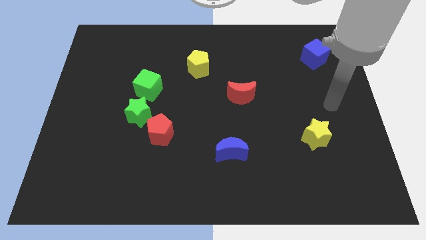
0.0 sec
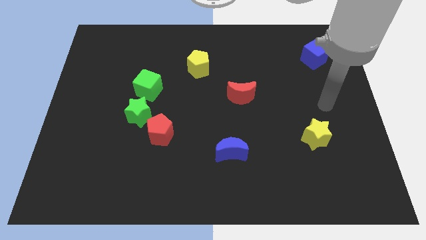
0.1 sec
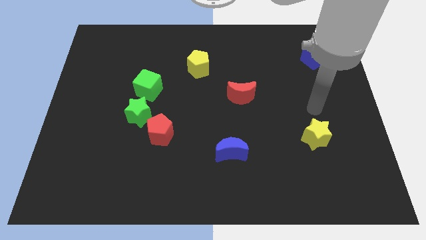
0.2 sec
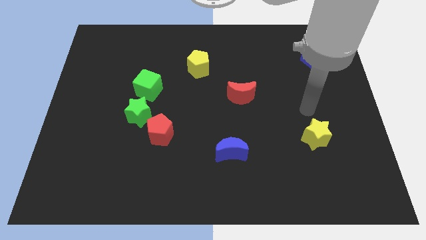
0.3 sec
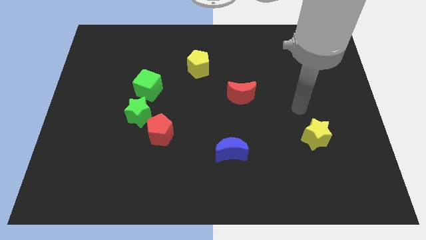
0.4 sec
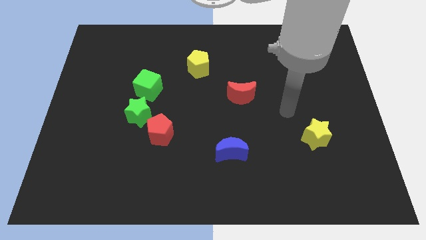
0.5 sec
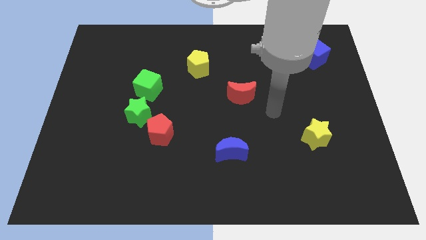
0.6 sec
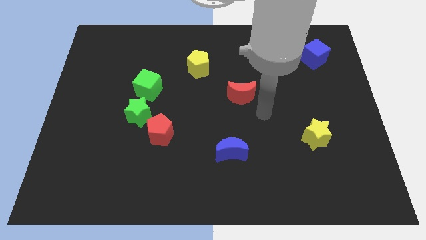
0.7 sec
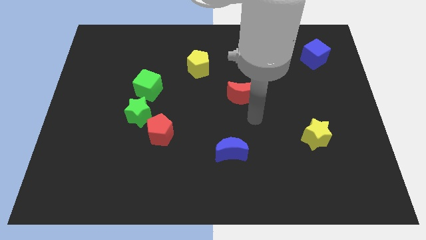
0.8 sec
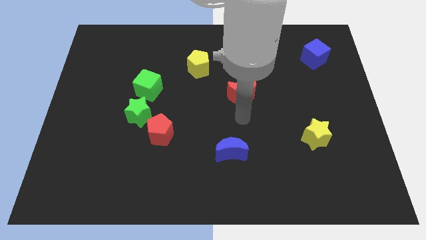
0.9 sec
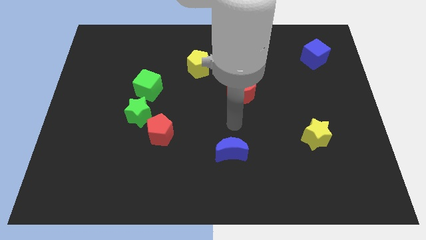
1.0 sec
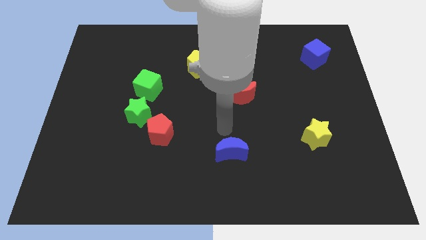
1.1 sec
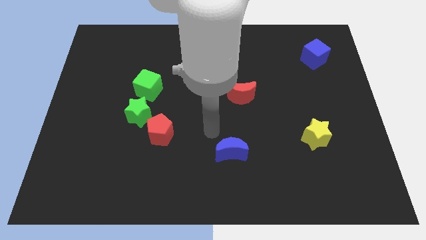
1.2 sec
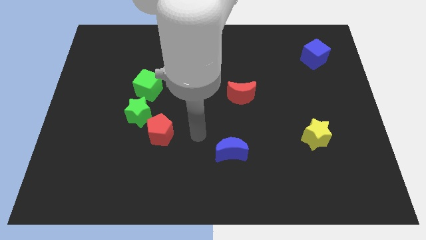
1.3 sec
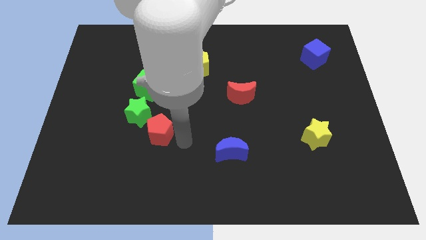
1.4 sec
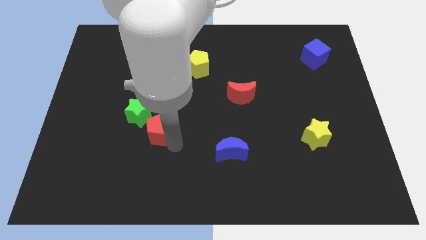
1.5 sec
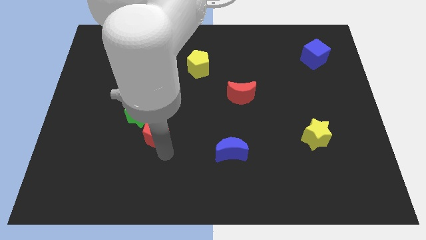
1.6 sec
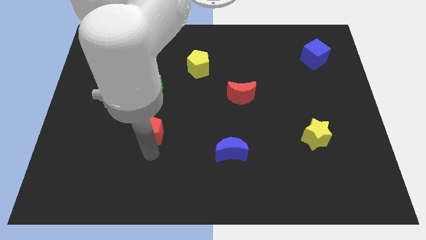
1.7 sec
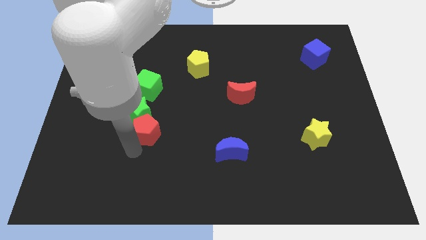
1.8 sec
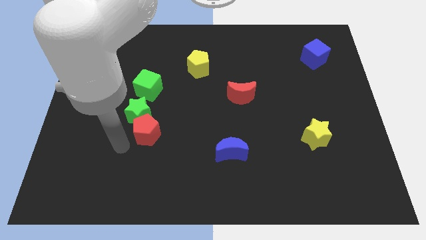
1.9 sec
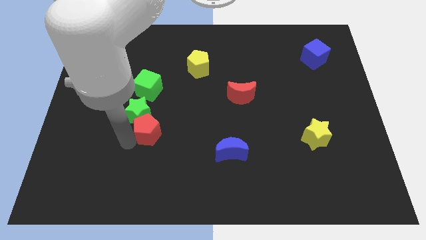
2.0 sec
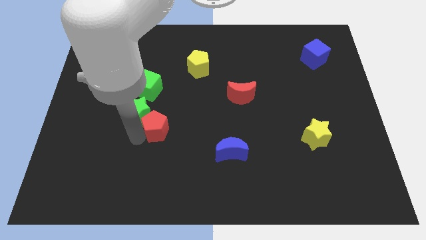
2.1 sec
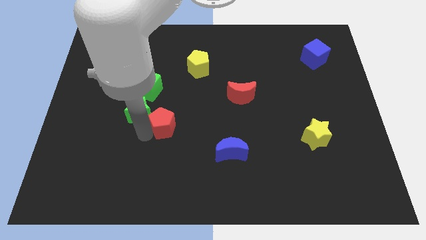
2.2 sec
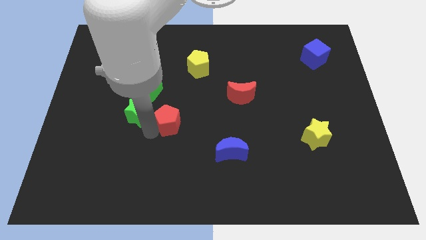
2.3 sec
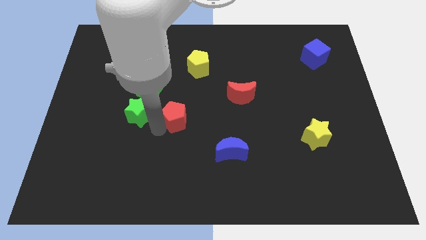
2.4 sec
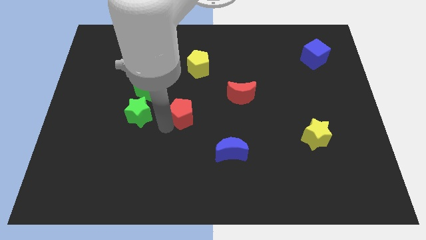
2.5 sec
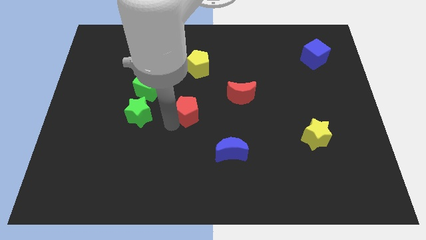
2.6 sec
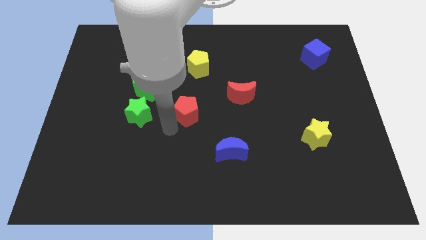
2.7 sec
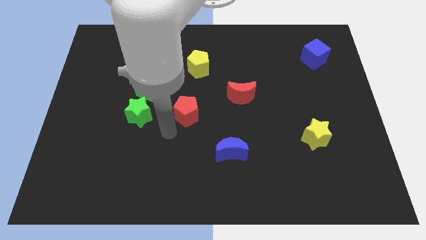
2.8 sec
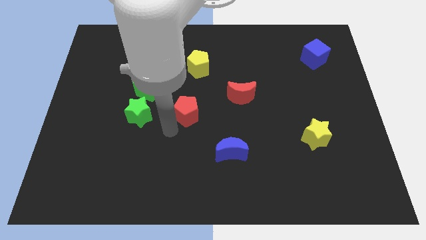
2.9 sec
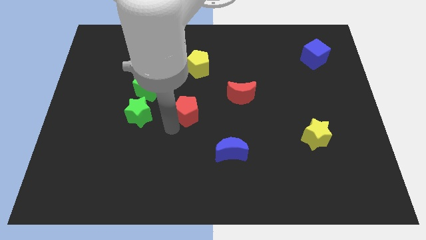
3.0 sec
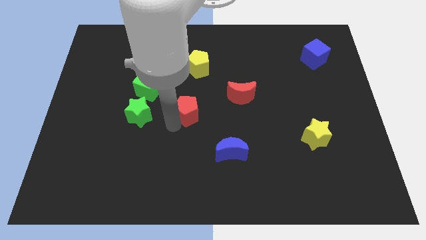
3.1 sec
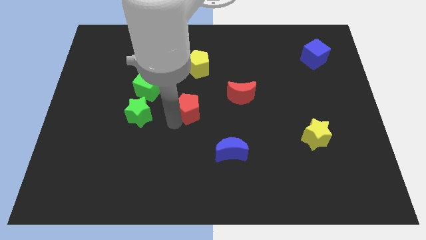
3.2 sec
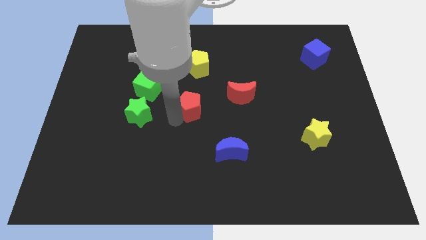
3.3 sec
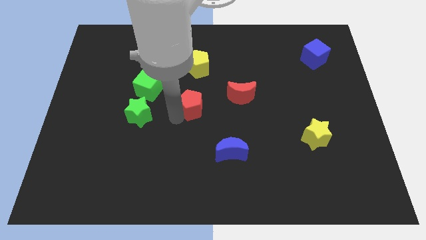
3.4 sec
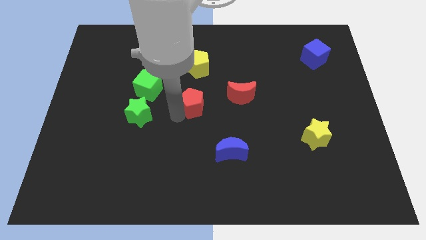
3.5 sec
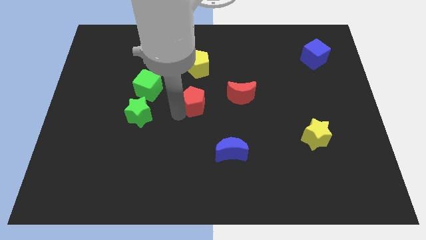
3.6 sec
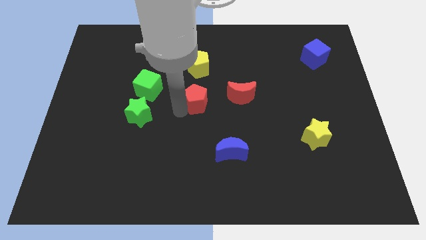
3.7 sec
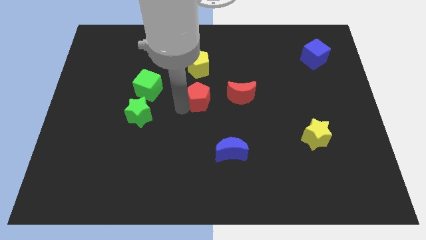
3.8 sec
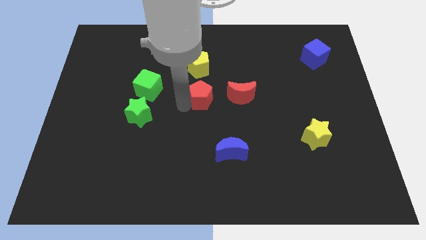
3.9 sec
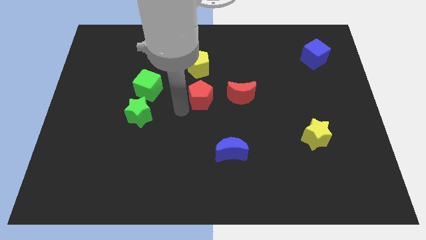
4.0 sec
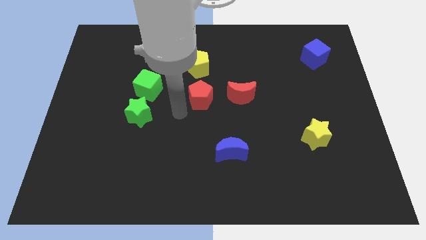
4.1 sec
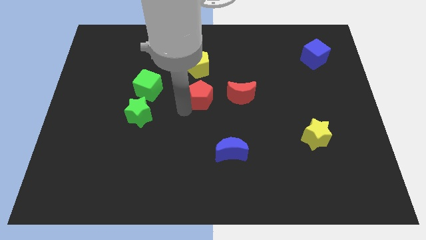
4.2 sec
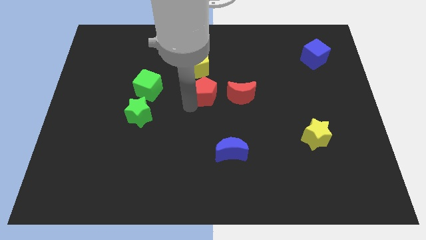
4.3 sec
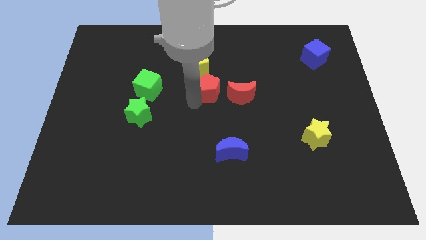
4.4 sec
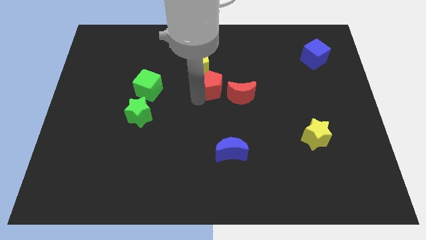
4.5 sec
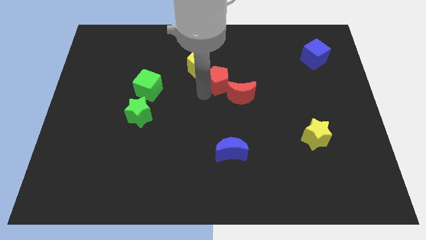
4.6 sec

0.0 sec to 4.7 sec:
move the red pentagon upwards and right

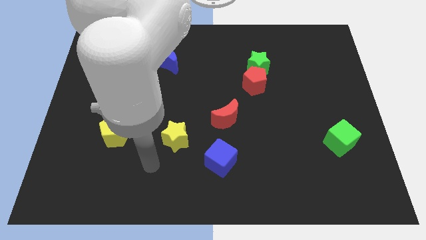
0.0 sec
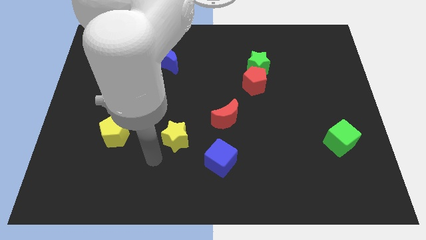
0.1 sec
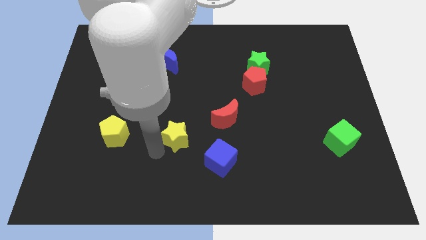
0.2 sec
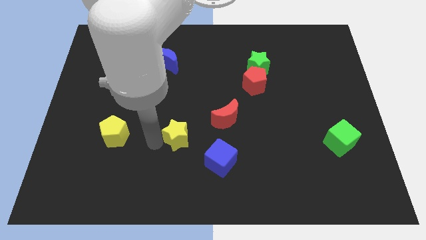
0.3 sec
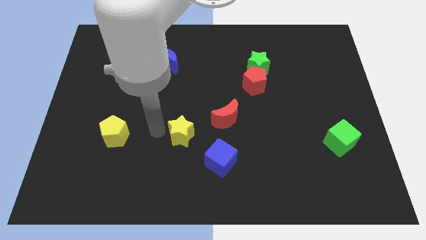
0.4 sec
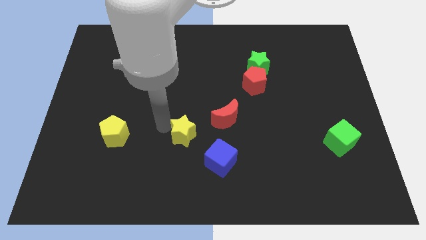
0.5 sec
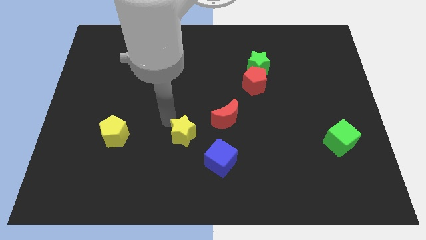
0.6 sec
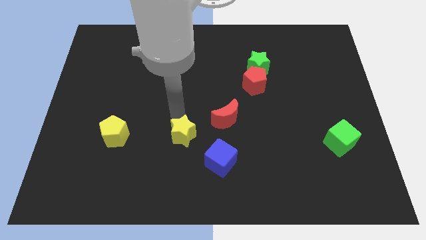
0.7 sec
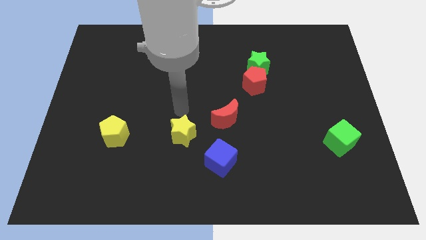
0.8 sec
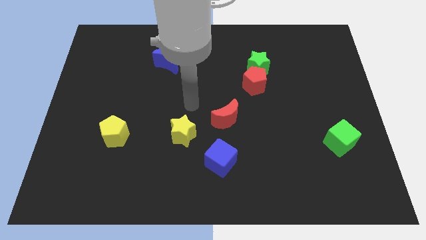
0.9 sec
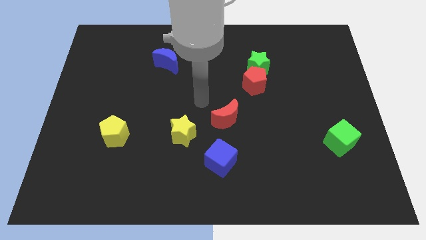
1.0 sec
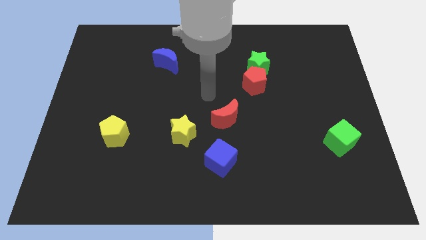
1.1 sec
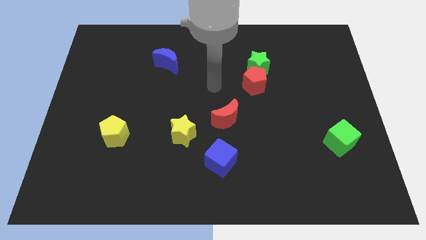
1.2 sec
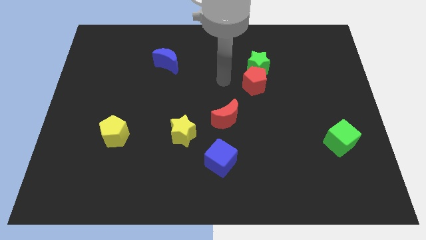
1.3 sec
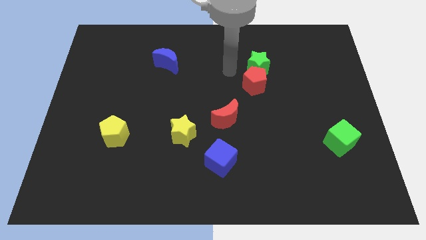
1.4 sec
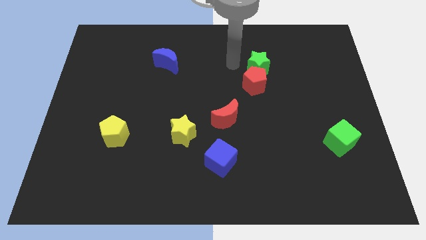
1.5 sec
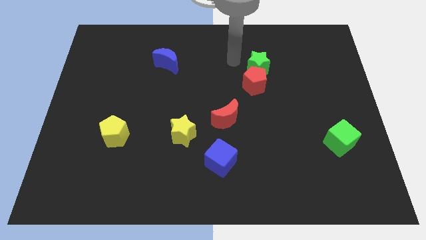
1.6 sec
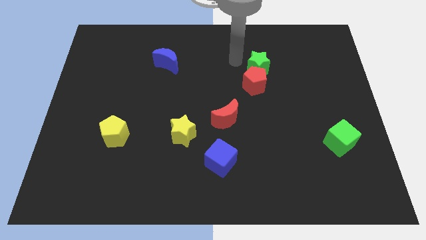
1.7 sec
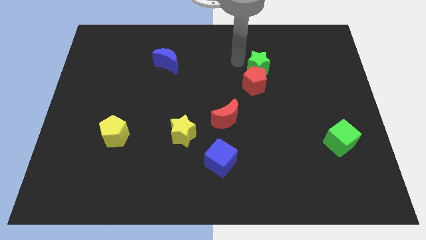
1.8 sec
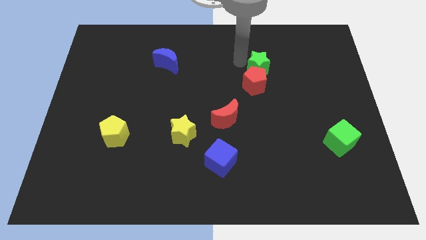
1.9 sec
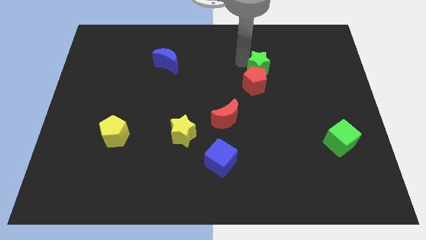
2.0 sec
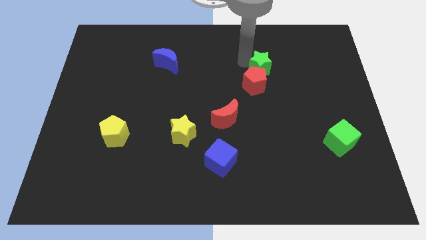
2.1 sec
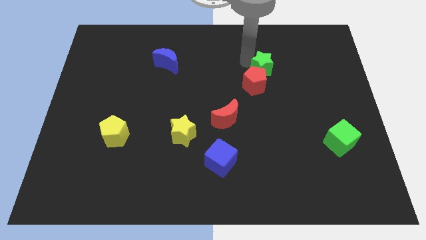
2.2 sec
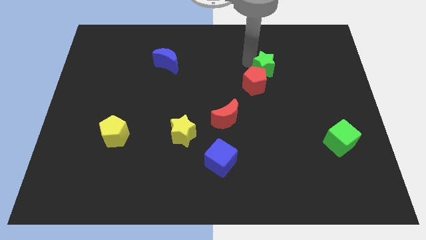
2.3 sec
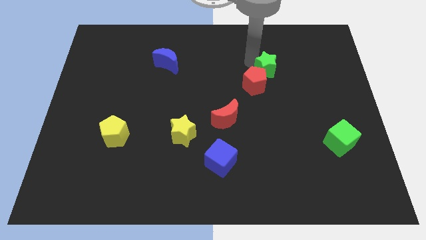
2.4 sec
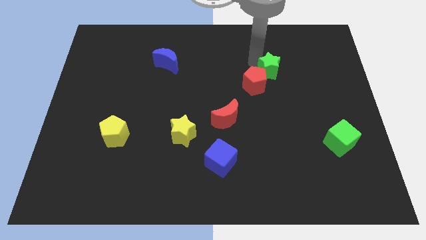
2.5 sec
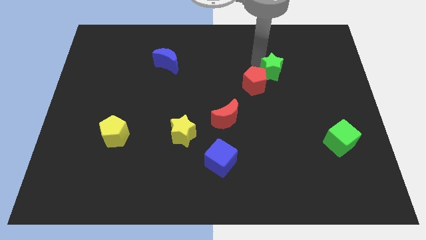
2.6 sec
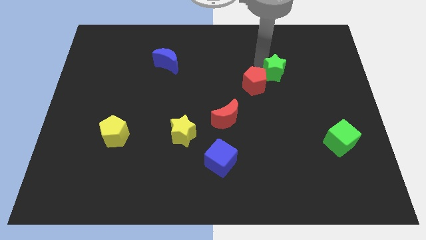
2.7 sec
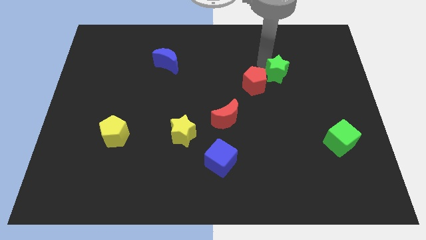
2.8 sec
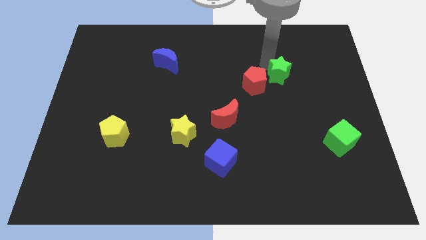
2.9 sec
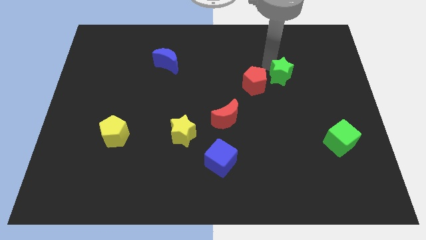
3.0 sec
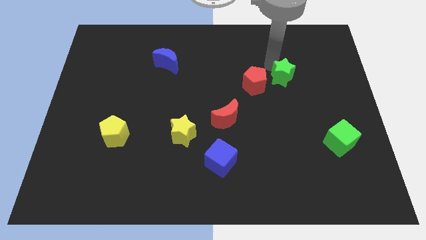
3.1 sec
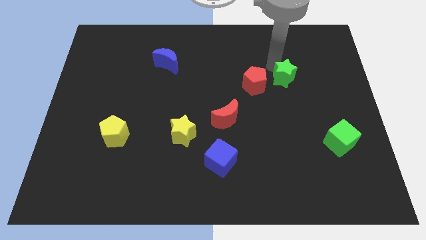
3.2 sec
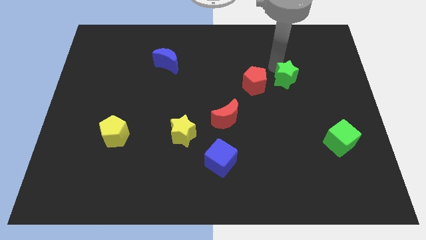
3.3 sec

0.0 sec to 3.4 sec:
push the green star diagonally down and to the right a little
